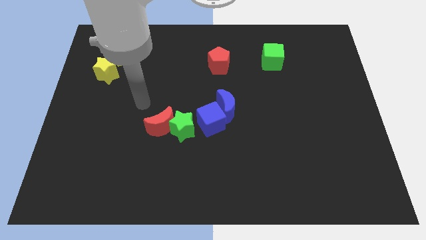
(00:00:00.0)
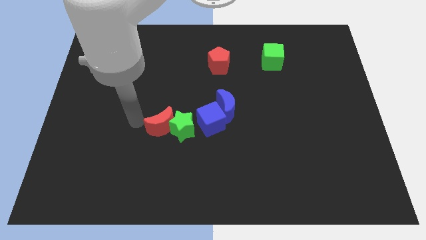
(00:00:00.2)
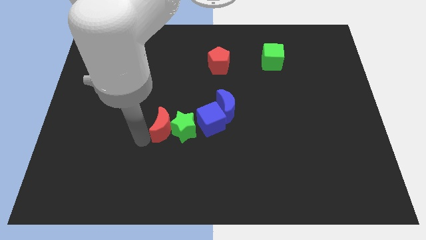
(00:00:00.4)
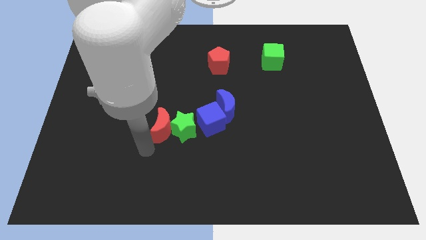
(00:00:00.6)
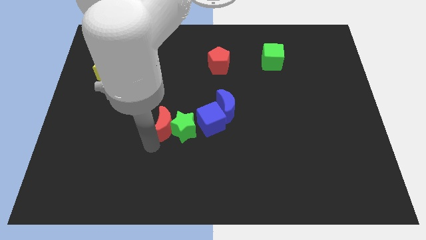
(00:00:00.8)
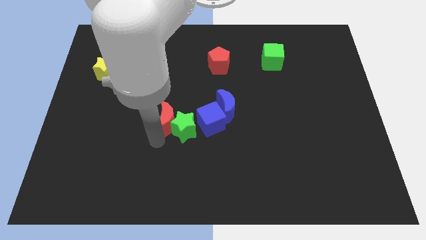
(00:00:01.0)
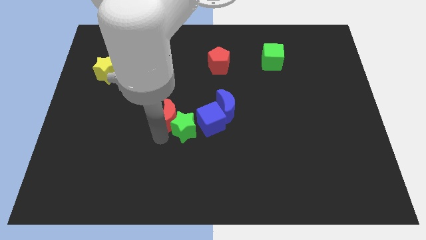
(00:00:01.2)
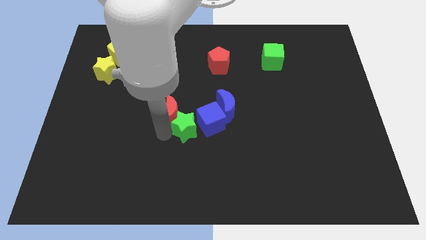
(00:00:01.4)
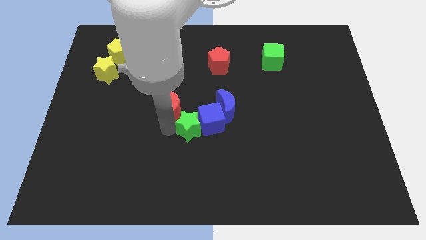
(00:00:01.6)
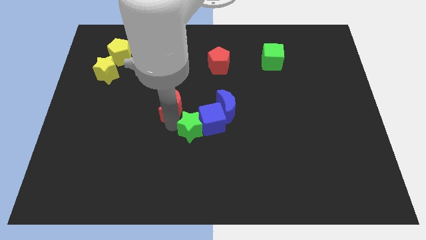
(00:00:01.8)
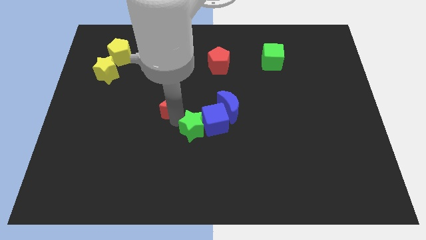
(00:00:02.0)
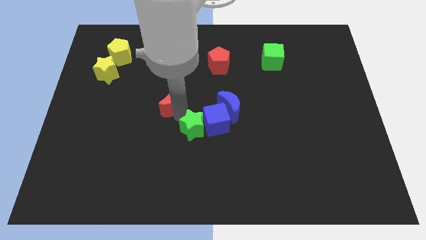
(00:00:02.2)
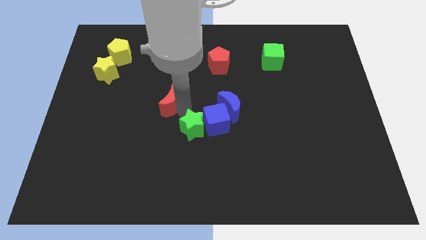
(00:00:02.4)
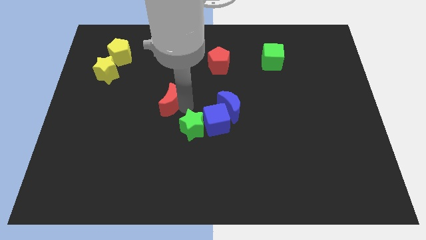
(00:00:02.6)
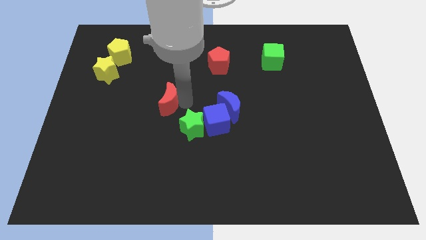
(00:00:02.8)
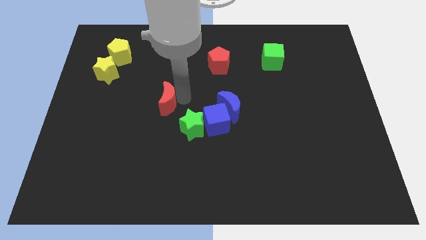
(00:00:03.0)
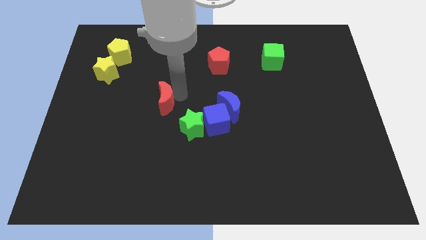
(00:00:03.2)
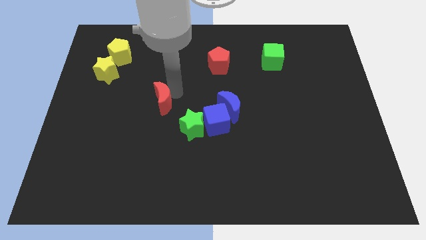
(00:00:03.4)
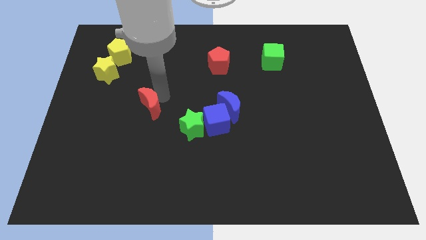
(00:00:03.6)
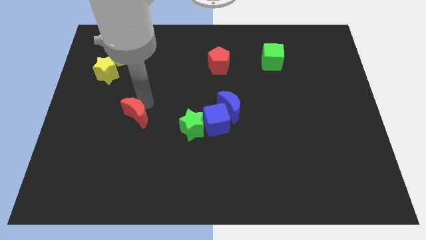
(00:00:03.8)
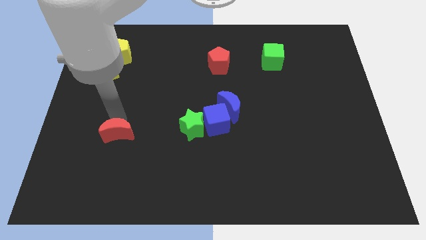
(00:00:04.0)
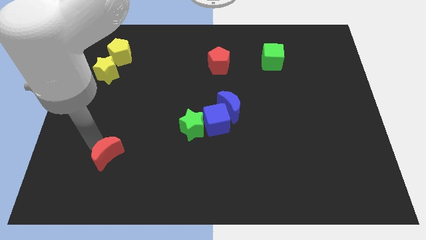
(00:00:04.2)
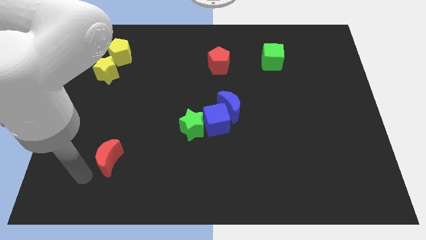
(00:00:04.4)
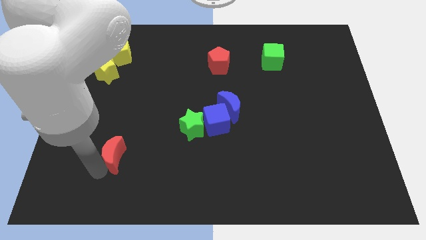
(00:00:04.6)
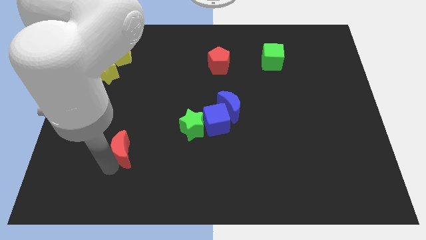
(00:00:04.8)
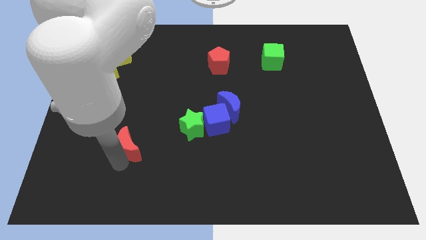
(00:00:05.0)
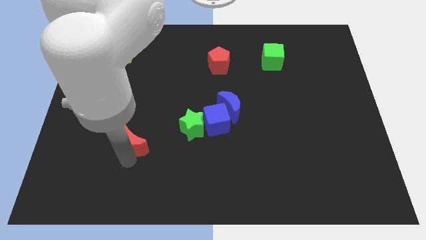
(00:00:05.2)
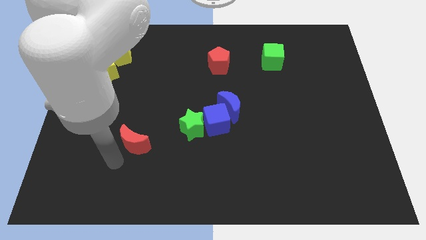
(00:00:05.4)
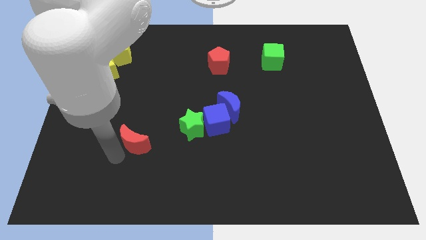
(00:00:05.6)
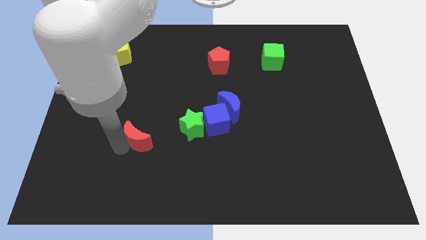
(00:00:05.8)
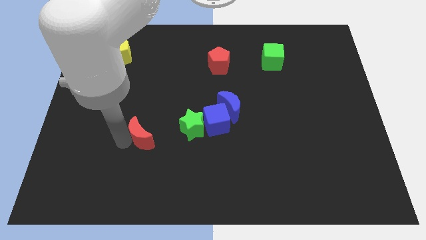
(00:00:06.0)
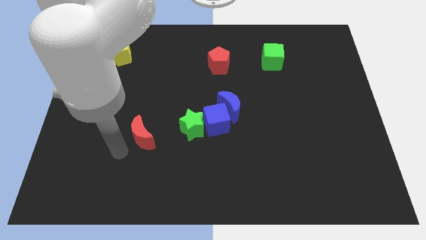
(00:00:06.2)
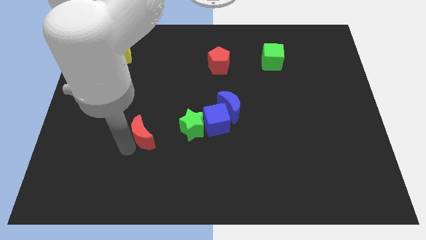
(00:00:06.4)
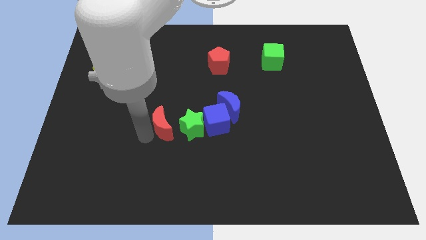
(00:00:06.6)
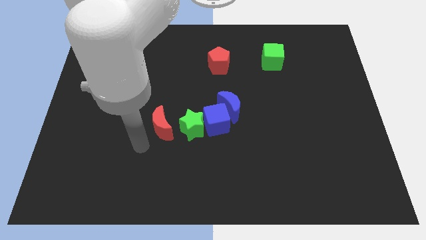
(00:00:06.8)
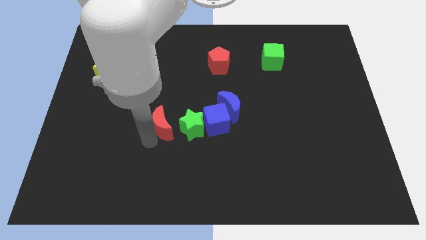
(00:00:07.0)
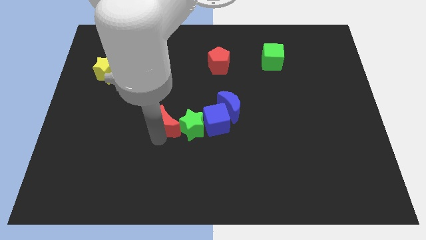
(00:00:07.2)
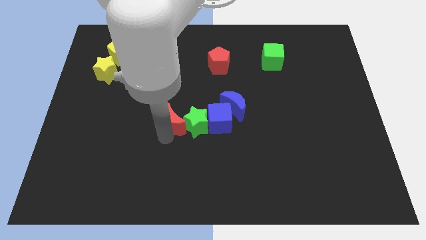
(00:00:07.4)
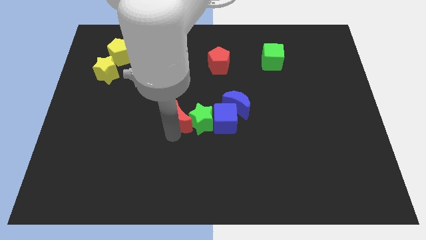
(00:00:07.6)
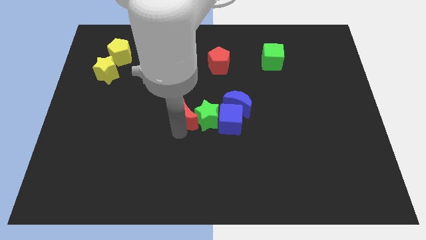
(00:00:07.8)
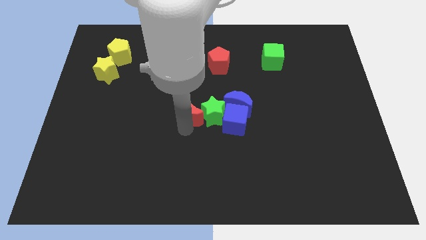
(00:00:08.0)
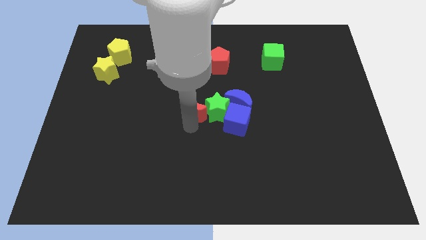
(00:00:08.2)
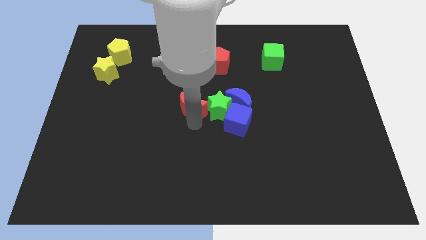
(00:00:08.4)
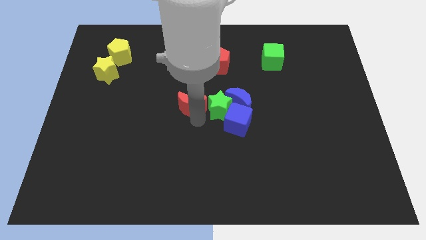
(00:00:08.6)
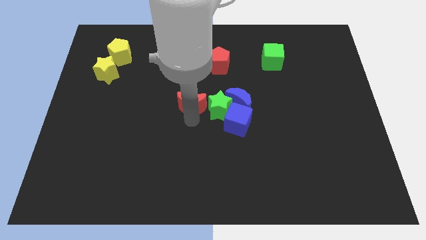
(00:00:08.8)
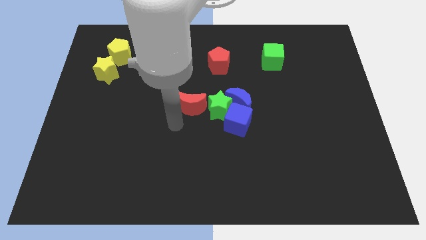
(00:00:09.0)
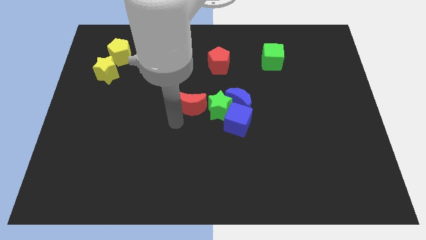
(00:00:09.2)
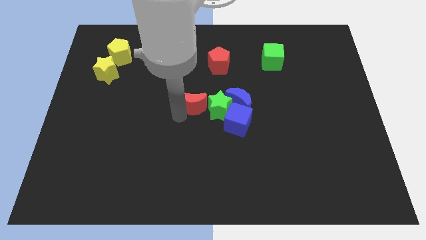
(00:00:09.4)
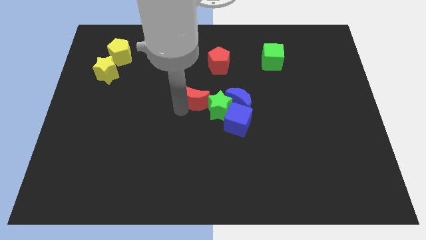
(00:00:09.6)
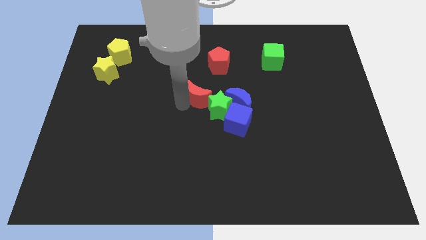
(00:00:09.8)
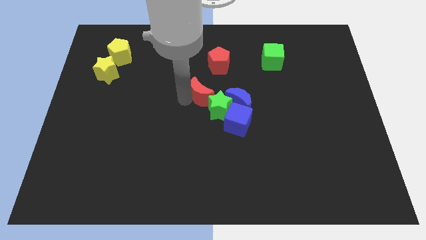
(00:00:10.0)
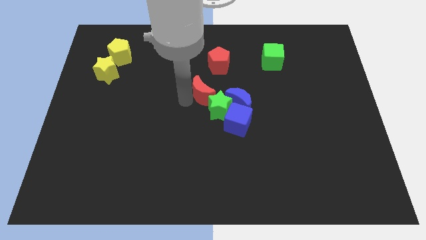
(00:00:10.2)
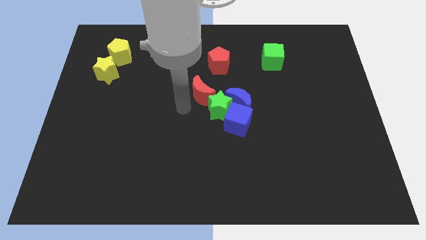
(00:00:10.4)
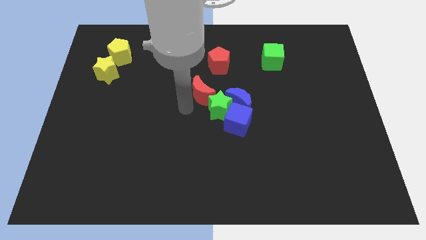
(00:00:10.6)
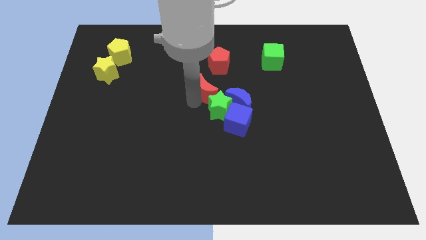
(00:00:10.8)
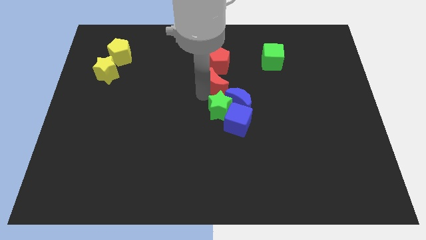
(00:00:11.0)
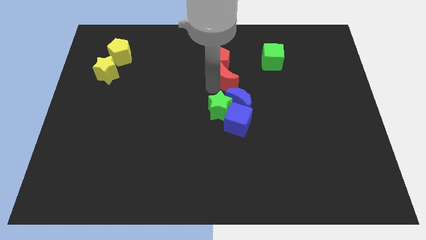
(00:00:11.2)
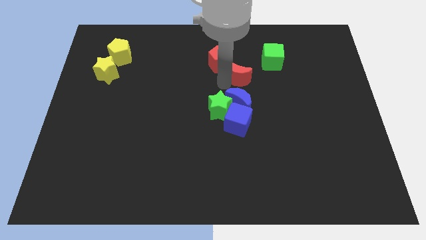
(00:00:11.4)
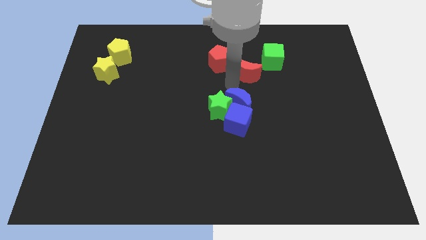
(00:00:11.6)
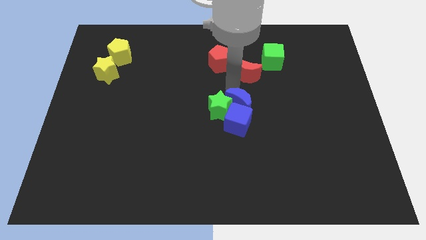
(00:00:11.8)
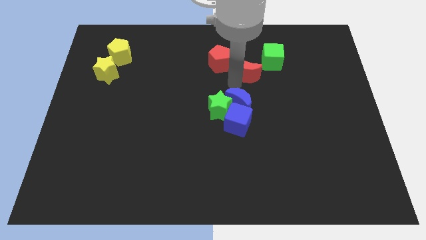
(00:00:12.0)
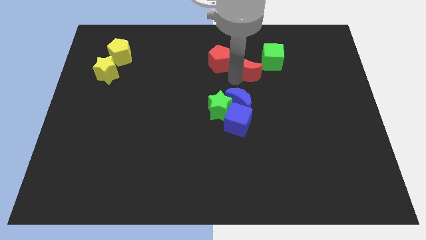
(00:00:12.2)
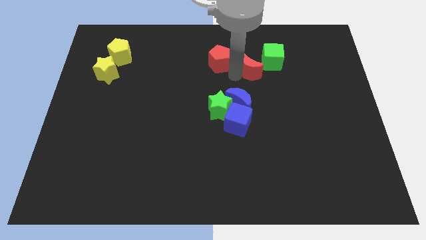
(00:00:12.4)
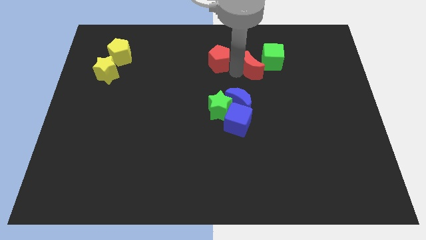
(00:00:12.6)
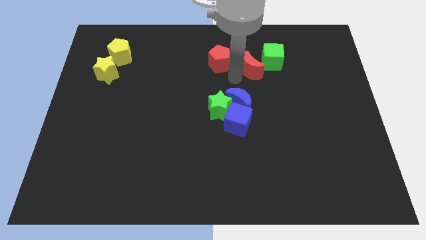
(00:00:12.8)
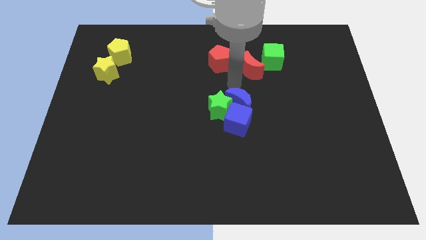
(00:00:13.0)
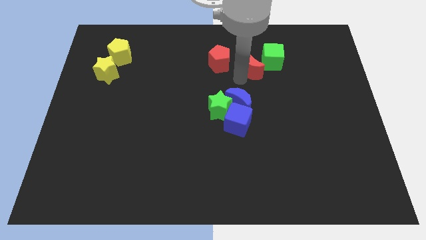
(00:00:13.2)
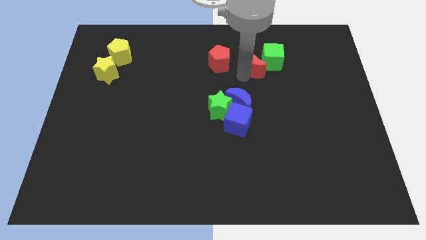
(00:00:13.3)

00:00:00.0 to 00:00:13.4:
move the red moon towards the green cube

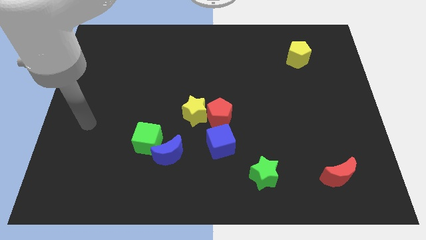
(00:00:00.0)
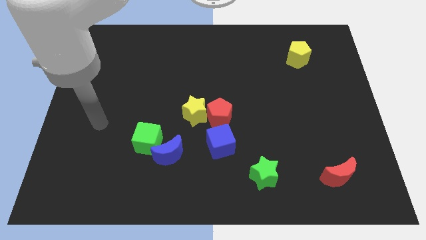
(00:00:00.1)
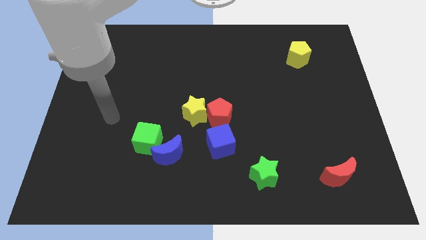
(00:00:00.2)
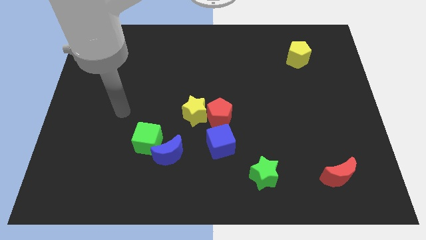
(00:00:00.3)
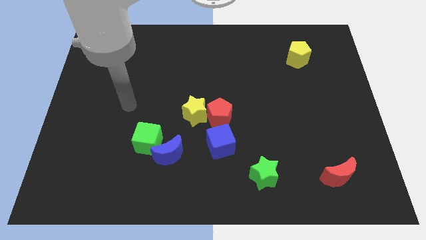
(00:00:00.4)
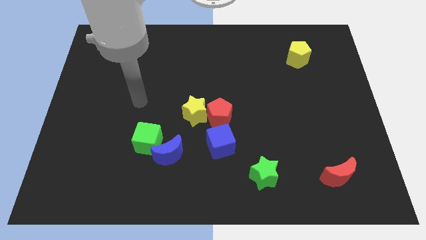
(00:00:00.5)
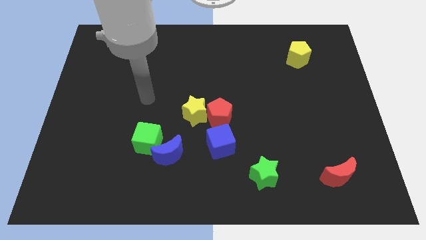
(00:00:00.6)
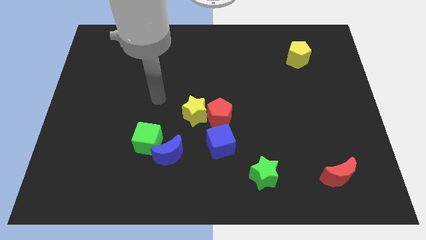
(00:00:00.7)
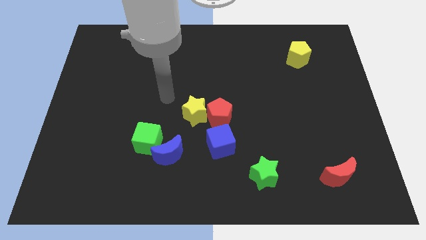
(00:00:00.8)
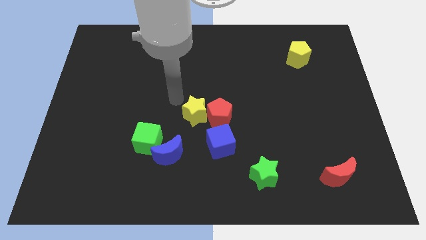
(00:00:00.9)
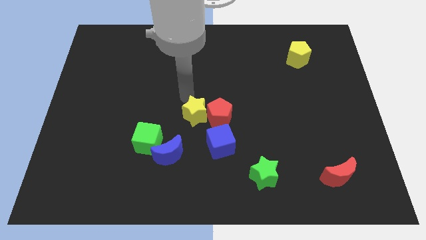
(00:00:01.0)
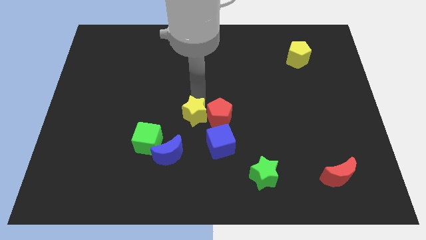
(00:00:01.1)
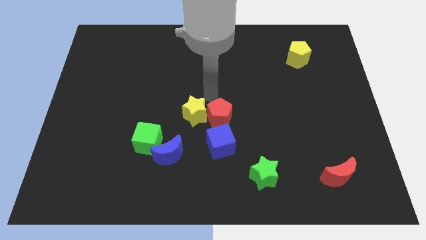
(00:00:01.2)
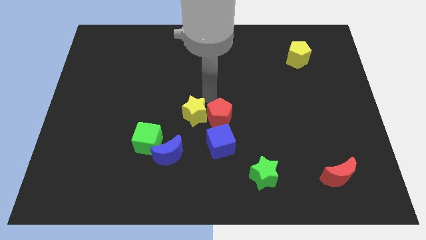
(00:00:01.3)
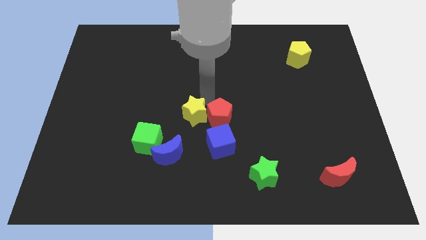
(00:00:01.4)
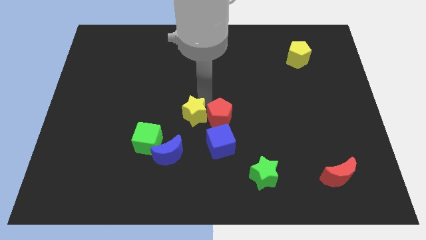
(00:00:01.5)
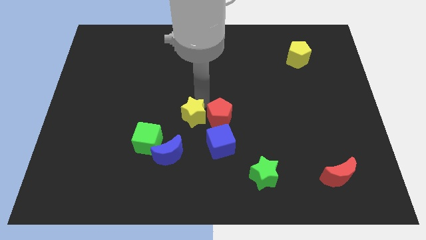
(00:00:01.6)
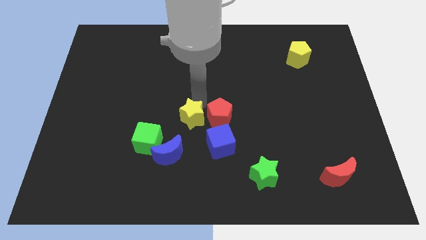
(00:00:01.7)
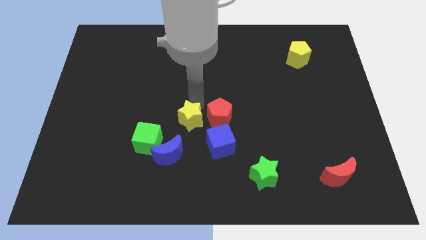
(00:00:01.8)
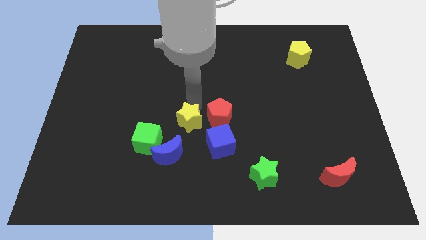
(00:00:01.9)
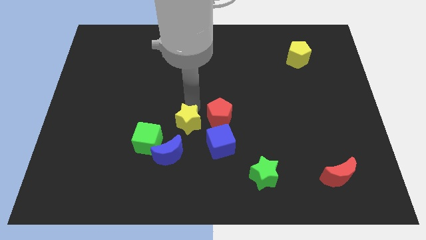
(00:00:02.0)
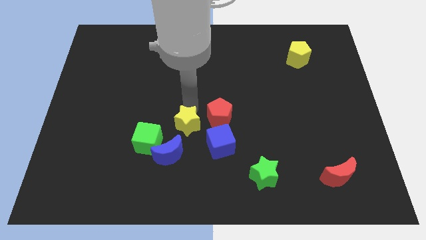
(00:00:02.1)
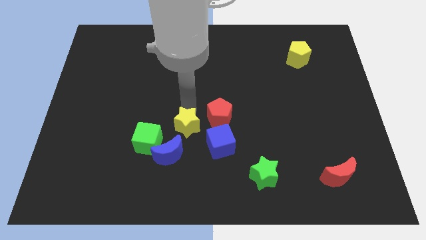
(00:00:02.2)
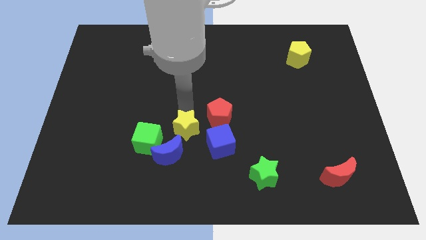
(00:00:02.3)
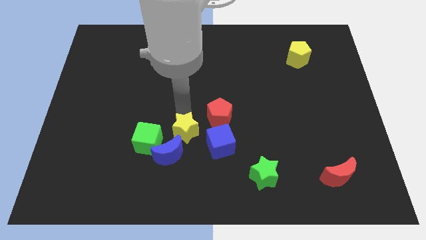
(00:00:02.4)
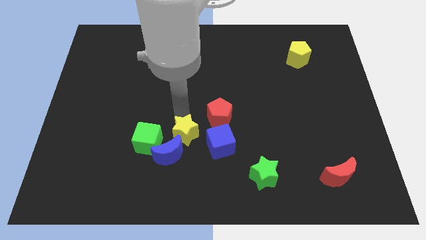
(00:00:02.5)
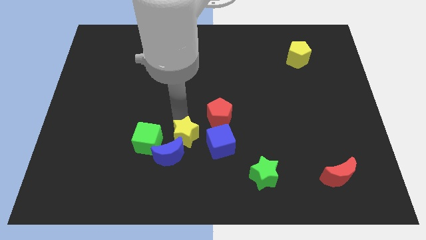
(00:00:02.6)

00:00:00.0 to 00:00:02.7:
slide the yellow star close to the blue moon
